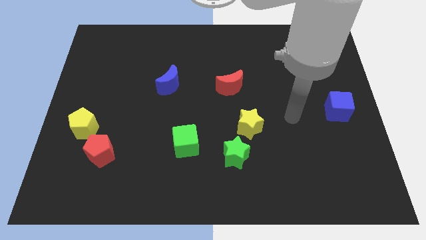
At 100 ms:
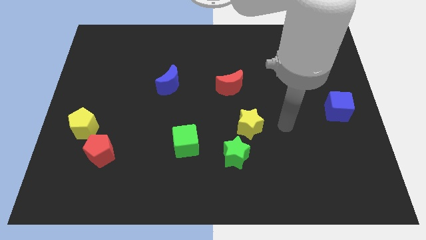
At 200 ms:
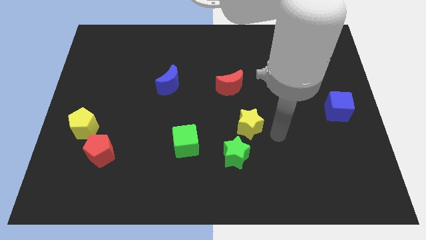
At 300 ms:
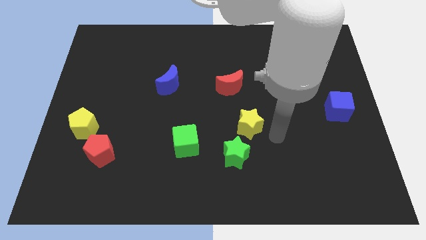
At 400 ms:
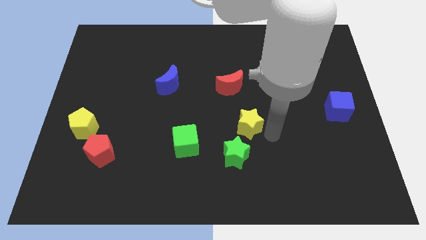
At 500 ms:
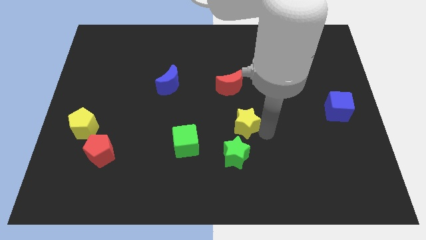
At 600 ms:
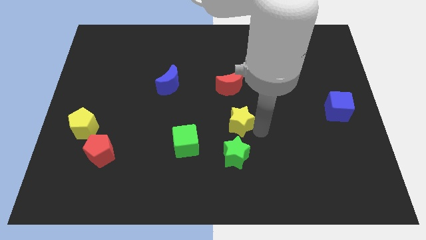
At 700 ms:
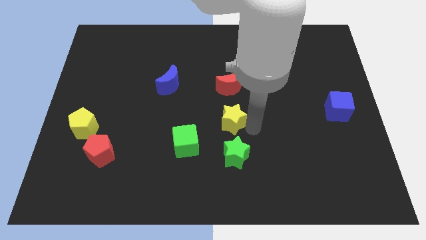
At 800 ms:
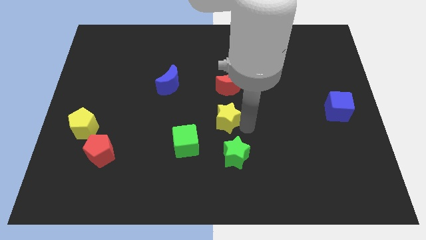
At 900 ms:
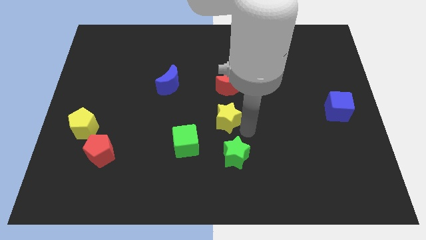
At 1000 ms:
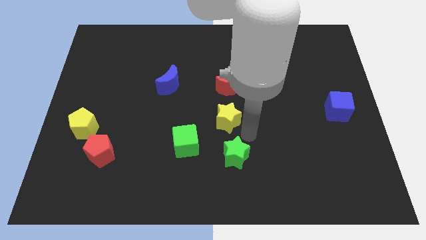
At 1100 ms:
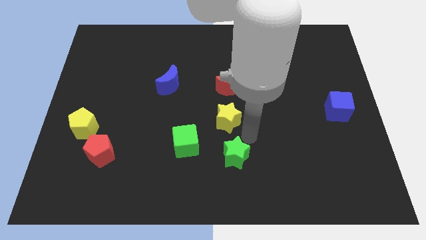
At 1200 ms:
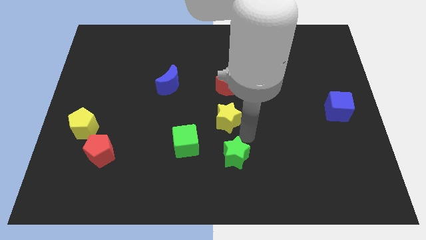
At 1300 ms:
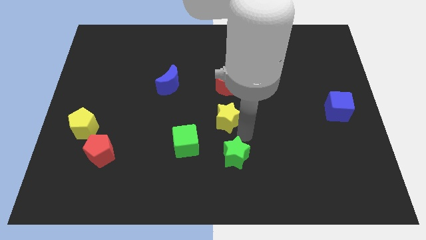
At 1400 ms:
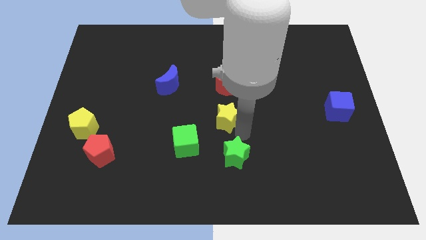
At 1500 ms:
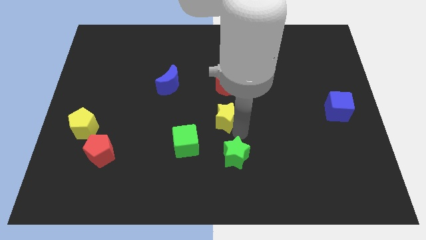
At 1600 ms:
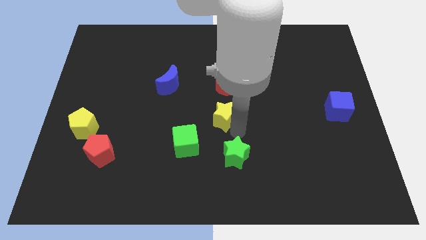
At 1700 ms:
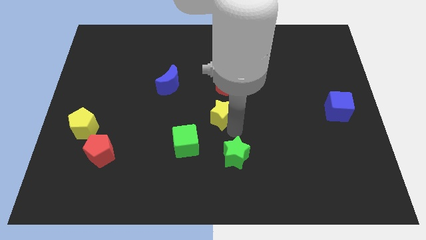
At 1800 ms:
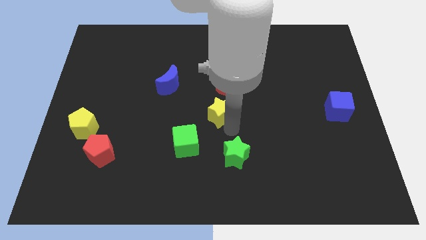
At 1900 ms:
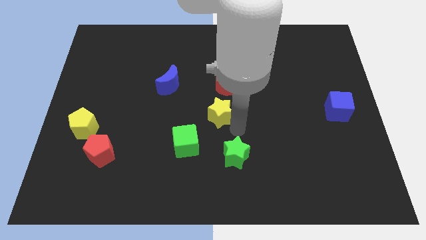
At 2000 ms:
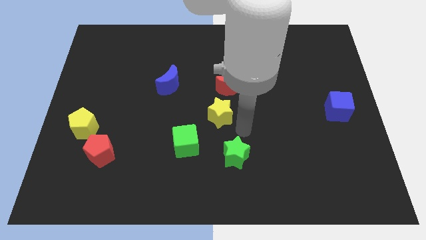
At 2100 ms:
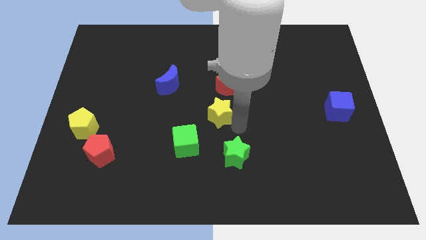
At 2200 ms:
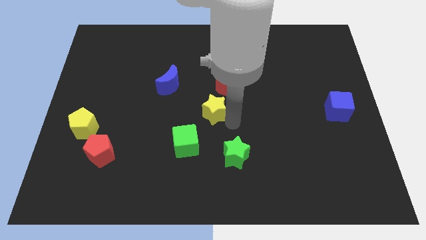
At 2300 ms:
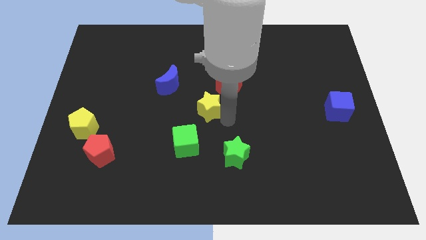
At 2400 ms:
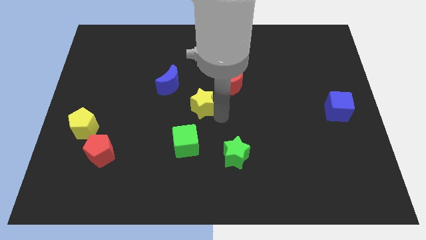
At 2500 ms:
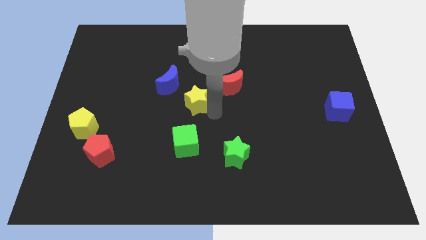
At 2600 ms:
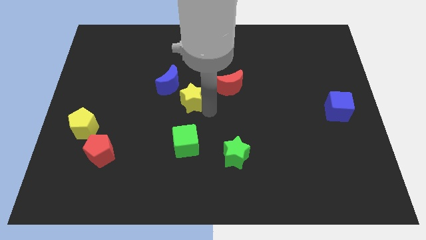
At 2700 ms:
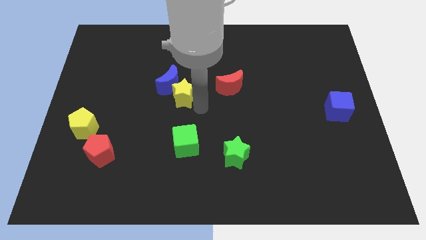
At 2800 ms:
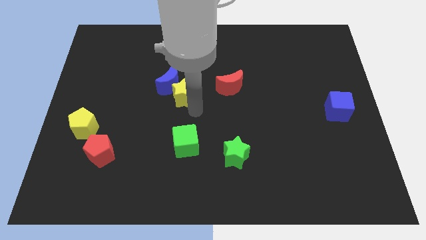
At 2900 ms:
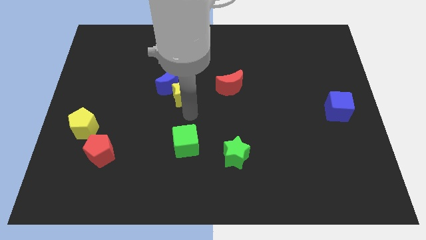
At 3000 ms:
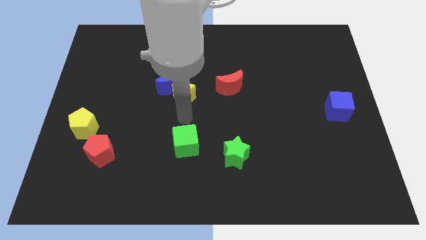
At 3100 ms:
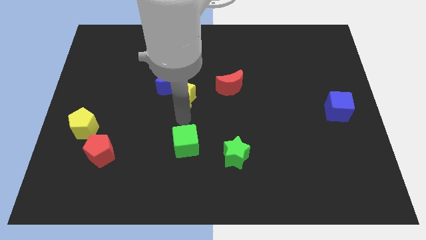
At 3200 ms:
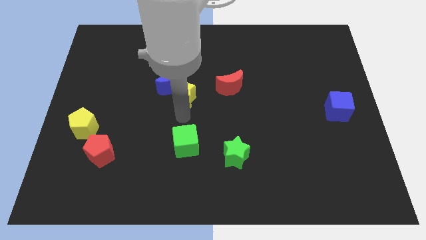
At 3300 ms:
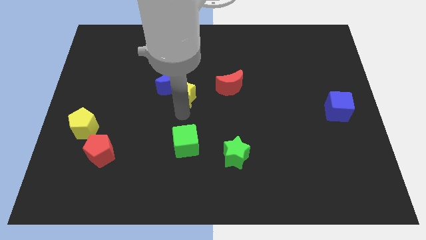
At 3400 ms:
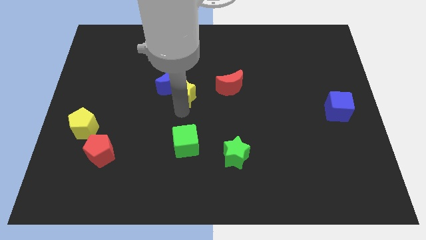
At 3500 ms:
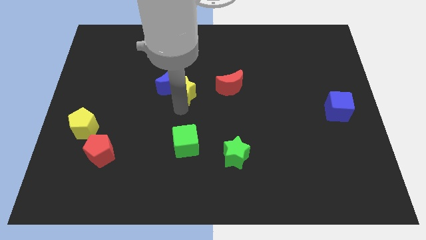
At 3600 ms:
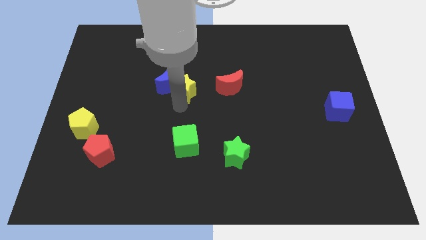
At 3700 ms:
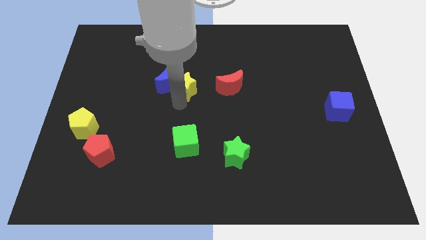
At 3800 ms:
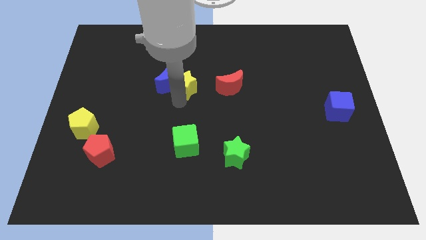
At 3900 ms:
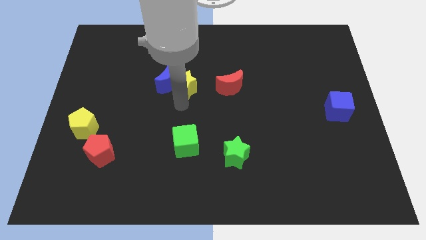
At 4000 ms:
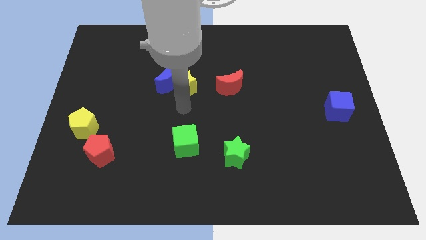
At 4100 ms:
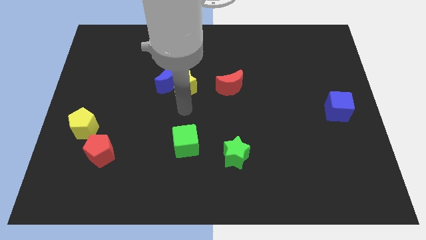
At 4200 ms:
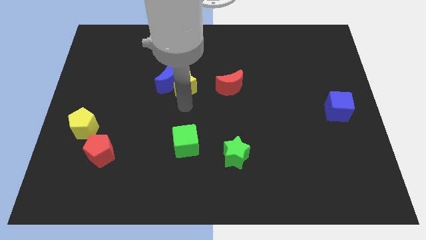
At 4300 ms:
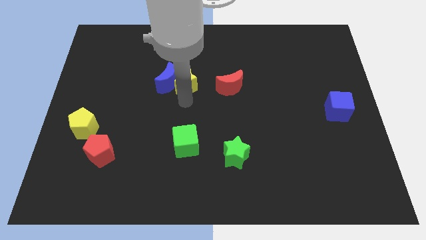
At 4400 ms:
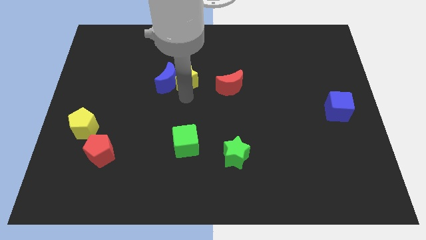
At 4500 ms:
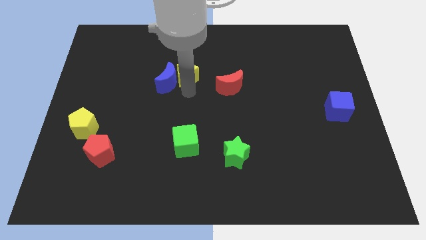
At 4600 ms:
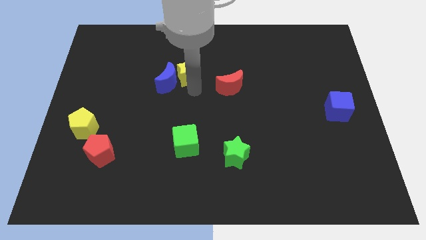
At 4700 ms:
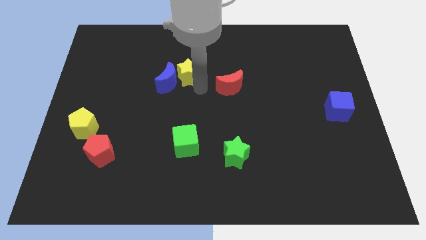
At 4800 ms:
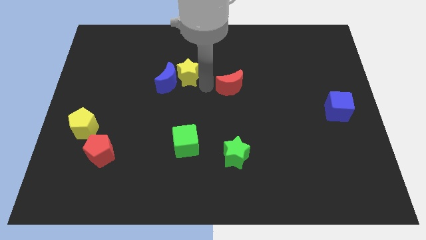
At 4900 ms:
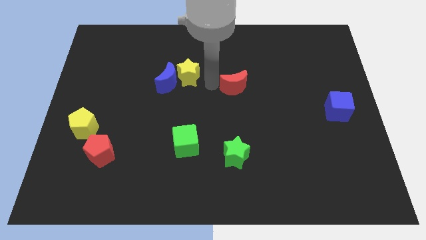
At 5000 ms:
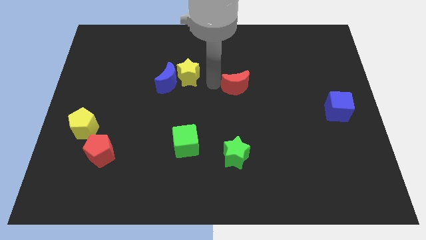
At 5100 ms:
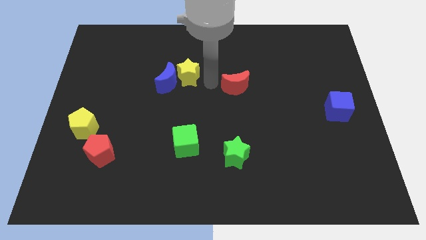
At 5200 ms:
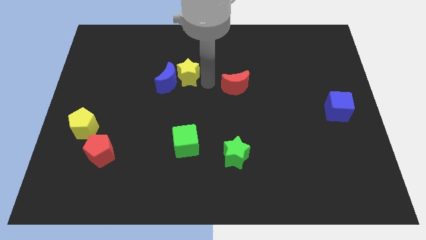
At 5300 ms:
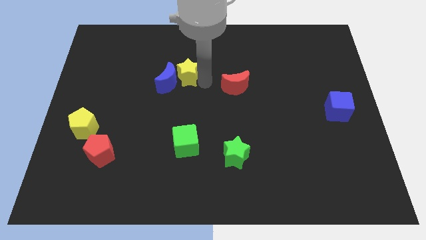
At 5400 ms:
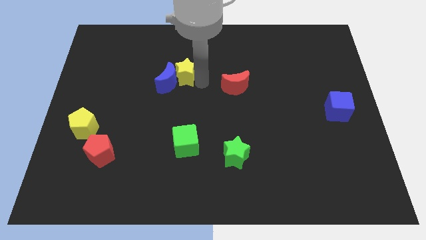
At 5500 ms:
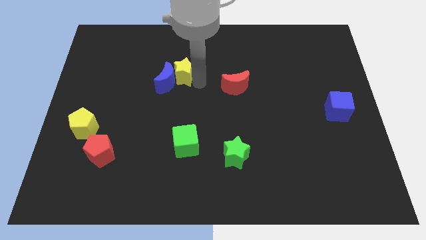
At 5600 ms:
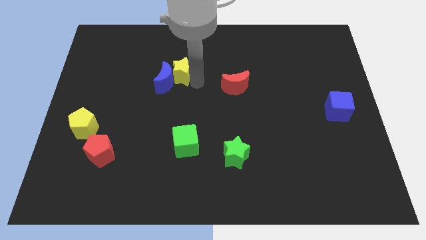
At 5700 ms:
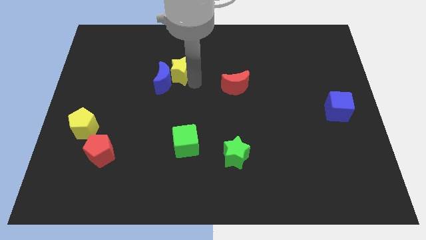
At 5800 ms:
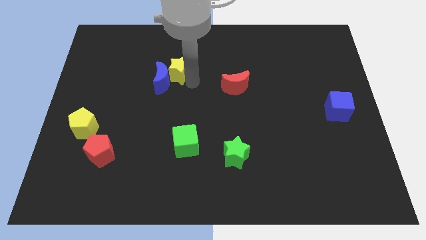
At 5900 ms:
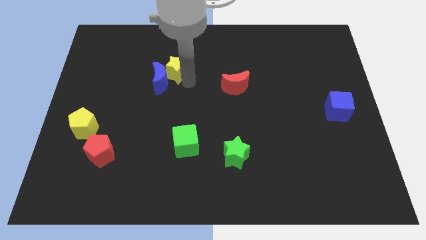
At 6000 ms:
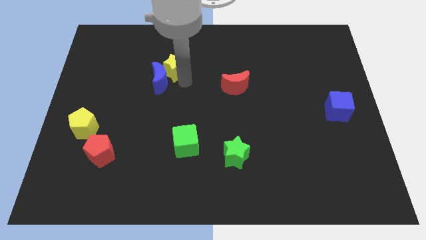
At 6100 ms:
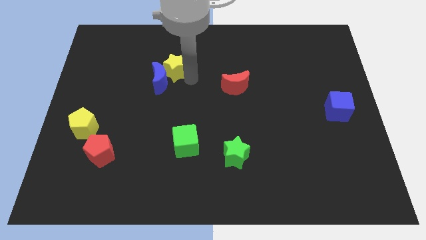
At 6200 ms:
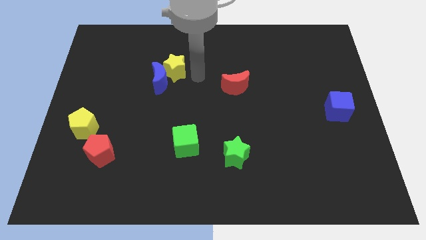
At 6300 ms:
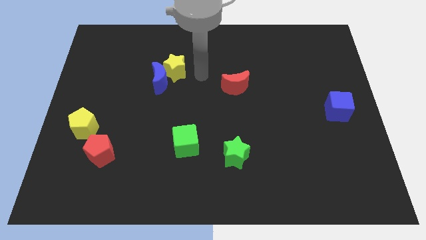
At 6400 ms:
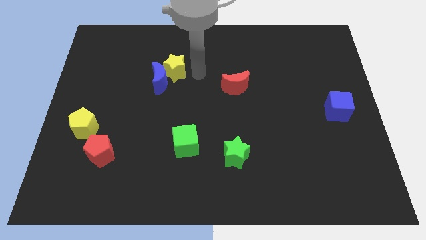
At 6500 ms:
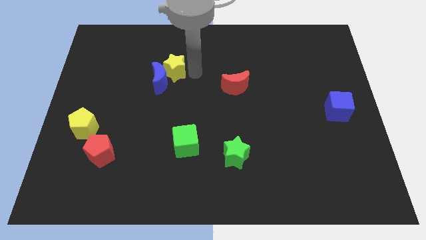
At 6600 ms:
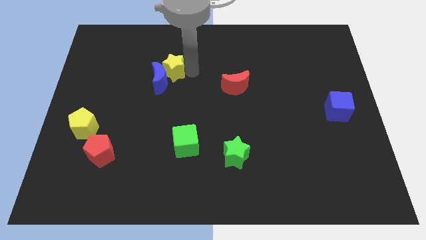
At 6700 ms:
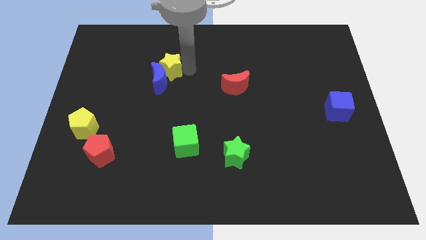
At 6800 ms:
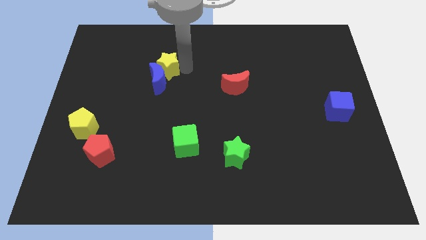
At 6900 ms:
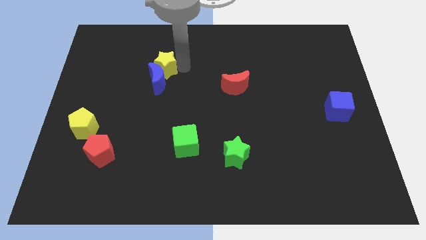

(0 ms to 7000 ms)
slide the yellow star to the top left side of the blue moon
